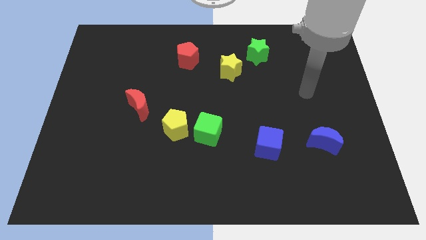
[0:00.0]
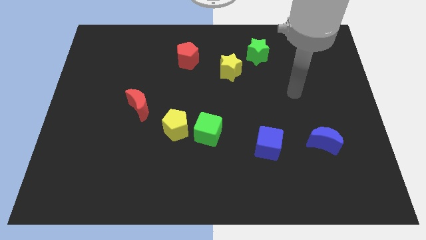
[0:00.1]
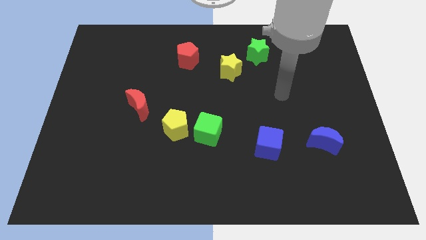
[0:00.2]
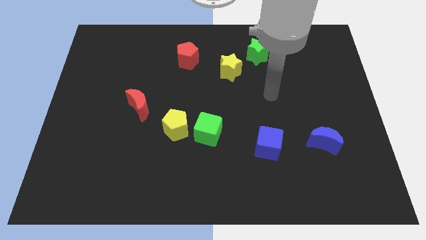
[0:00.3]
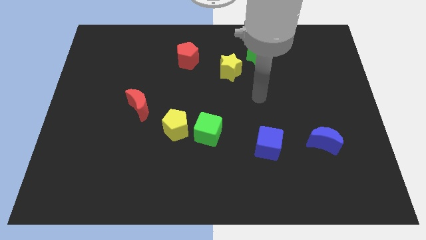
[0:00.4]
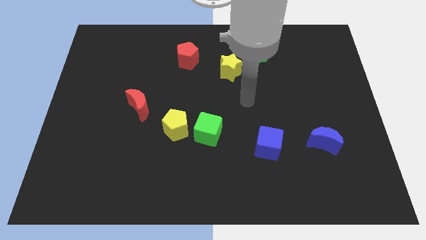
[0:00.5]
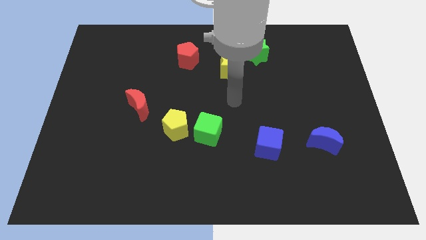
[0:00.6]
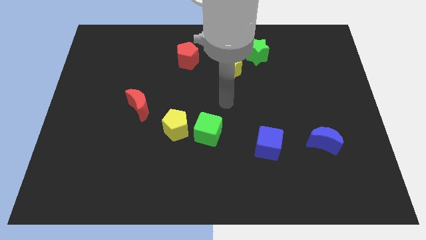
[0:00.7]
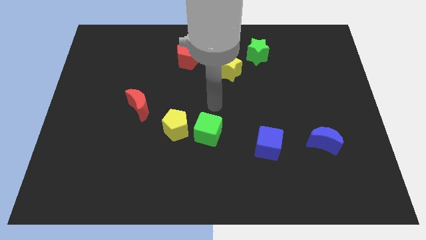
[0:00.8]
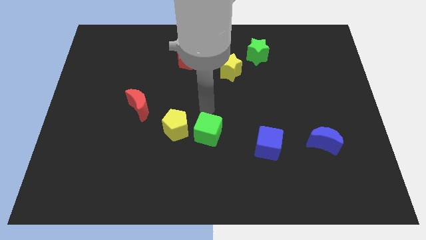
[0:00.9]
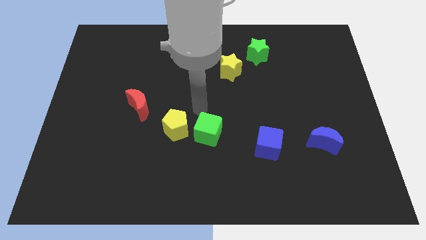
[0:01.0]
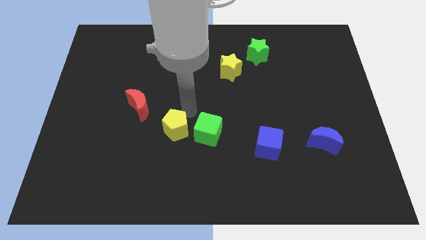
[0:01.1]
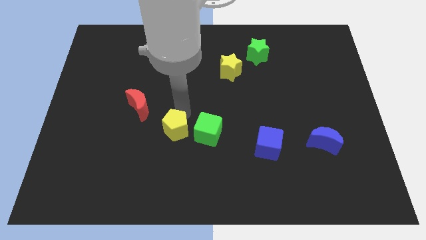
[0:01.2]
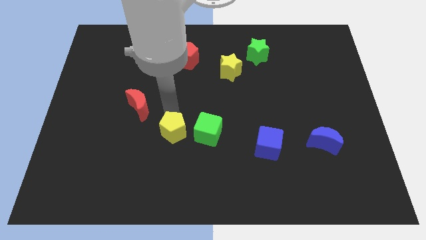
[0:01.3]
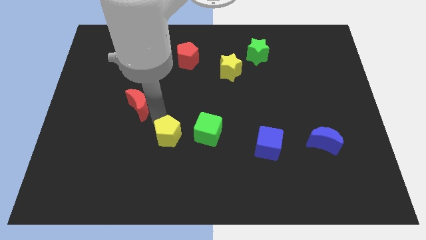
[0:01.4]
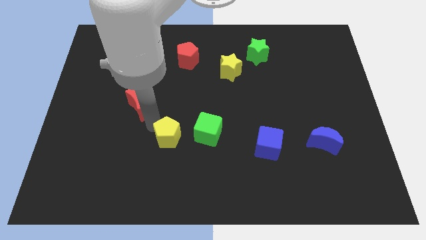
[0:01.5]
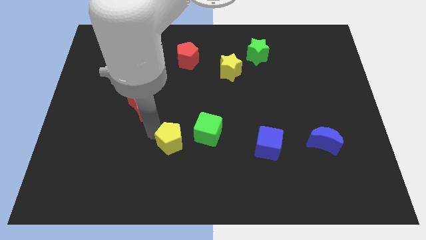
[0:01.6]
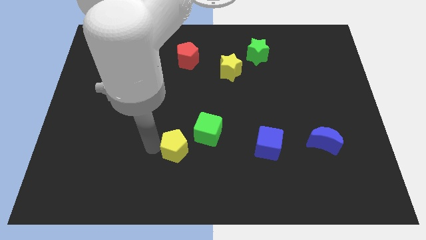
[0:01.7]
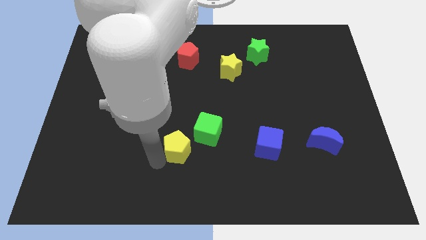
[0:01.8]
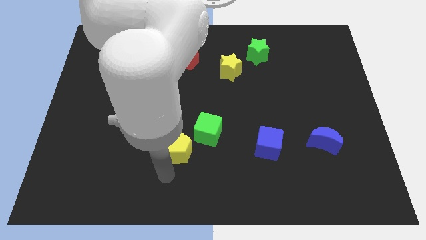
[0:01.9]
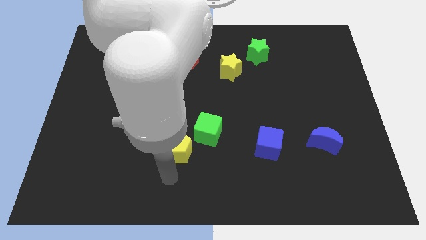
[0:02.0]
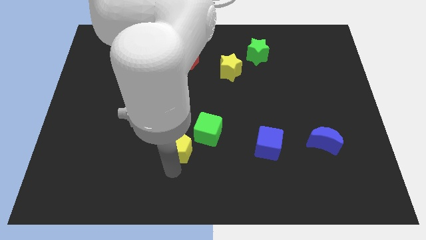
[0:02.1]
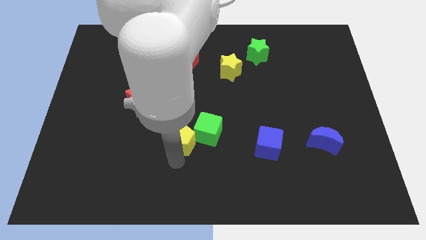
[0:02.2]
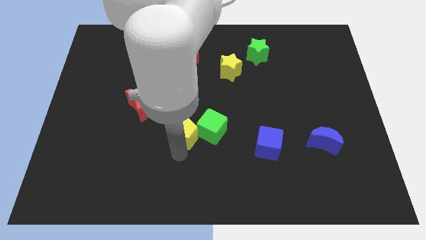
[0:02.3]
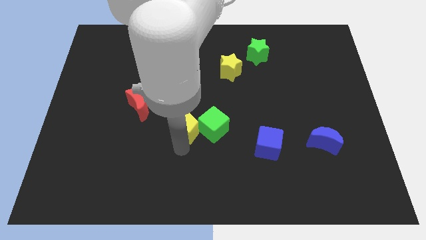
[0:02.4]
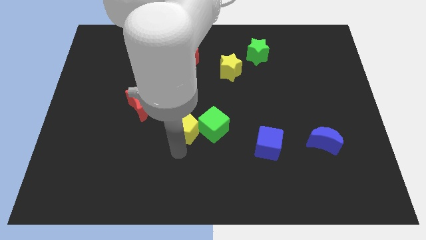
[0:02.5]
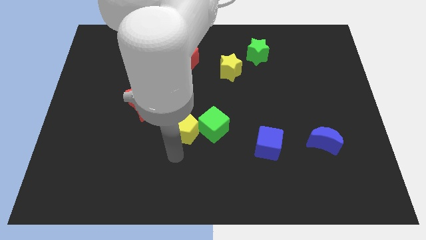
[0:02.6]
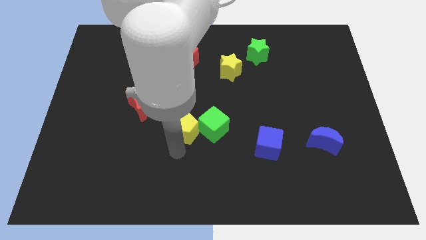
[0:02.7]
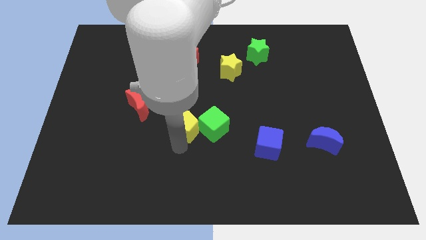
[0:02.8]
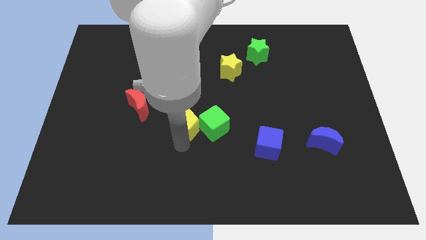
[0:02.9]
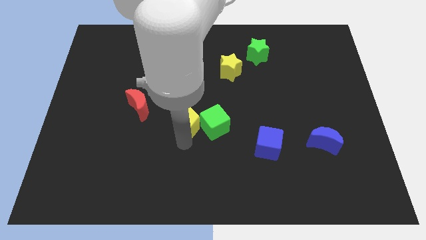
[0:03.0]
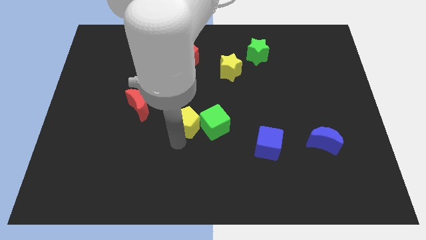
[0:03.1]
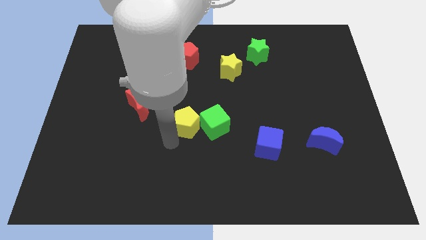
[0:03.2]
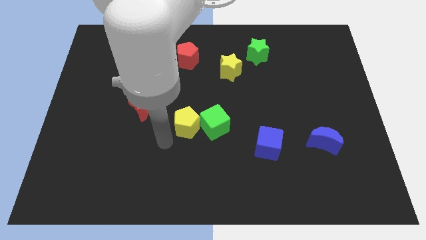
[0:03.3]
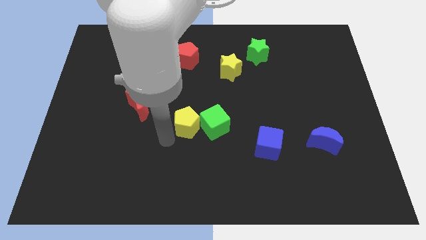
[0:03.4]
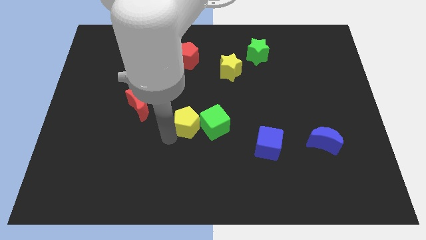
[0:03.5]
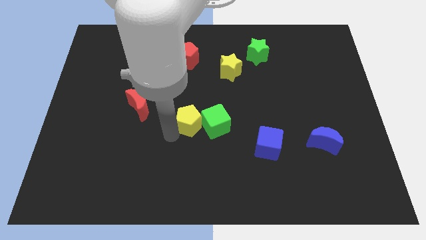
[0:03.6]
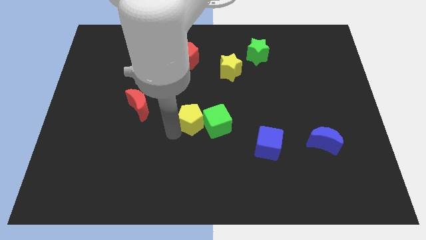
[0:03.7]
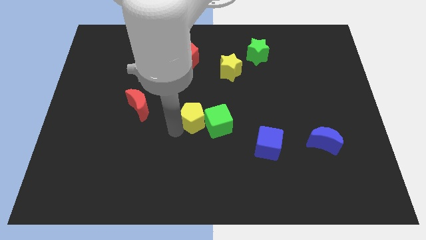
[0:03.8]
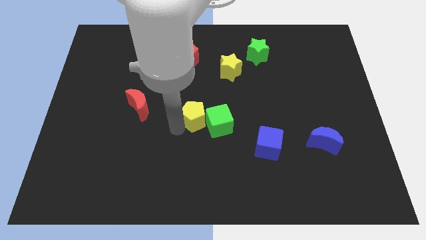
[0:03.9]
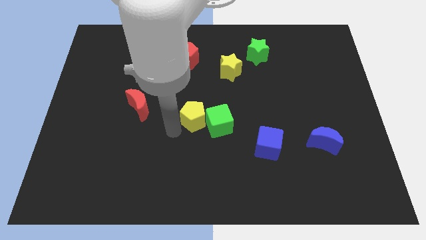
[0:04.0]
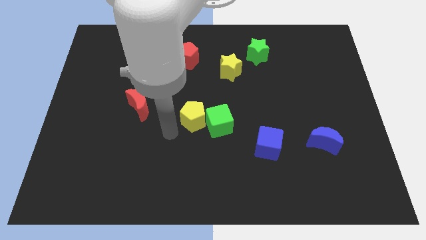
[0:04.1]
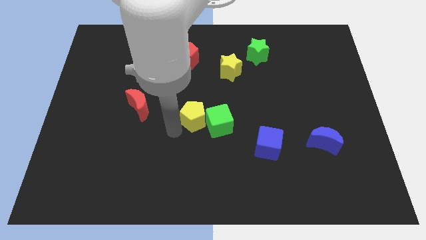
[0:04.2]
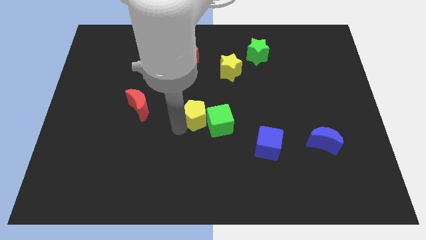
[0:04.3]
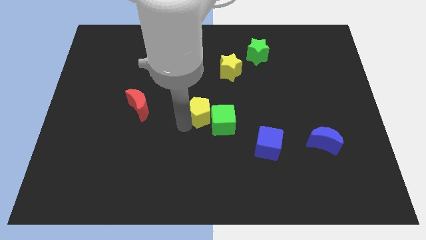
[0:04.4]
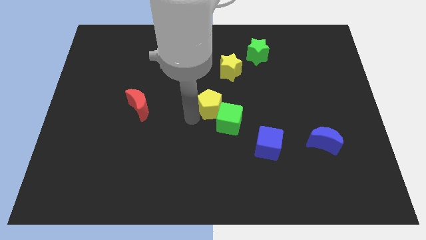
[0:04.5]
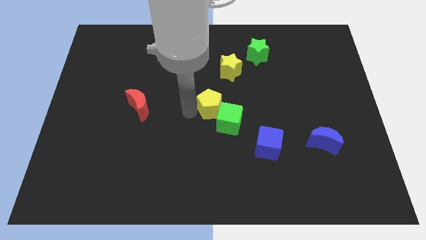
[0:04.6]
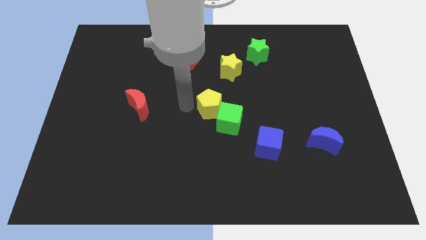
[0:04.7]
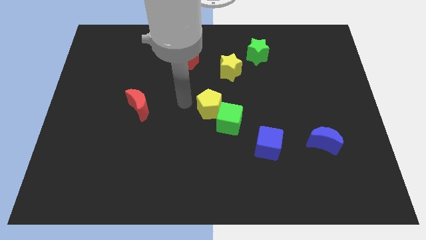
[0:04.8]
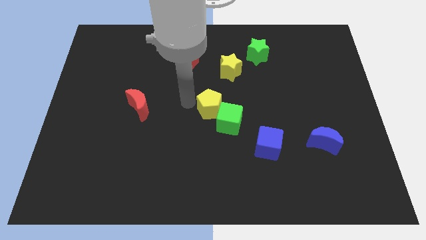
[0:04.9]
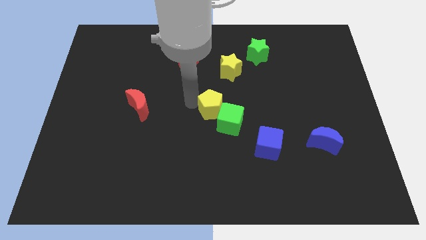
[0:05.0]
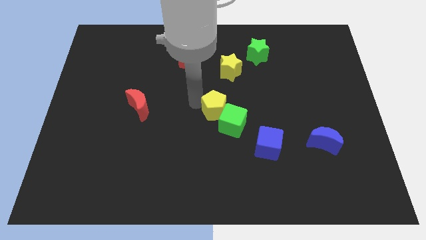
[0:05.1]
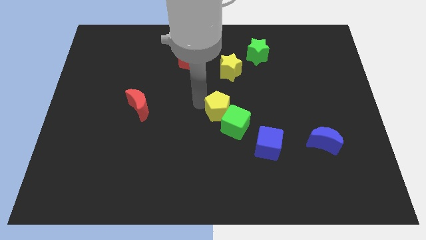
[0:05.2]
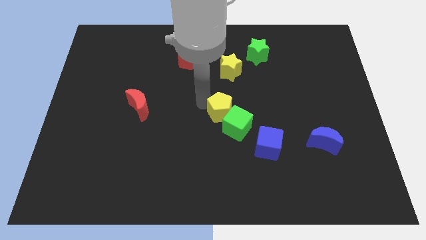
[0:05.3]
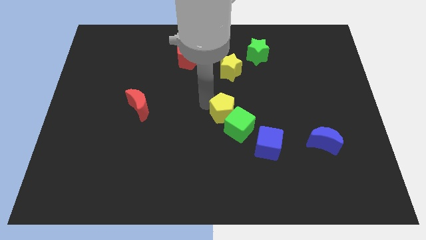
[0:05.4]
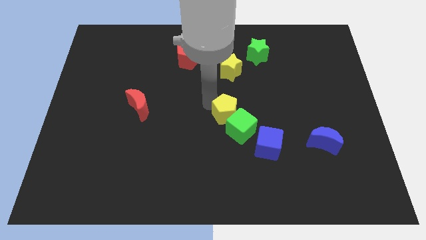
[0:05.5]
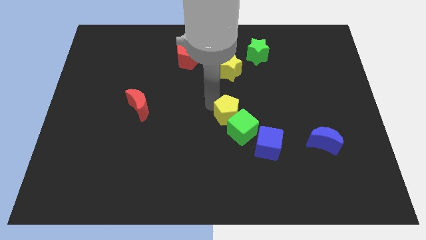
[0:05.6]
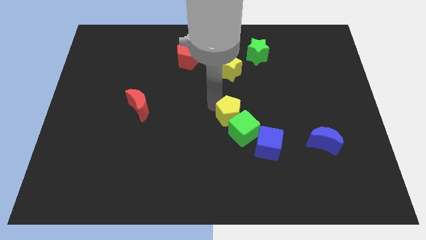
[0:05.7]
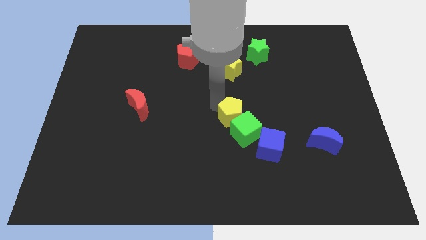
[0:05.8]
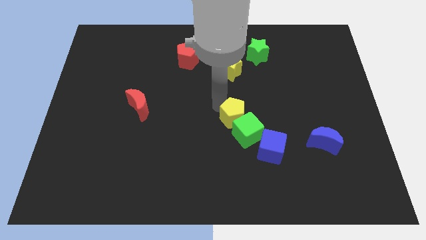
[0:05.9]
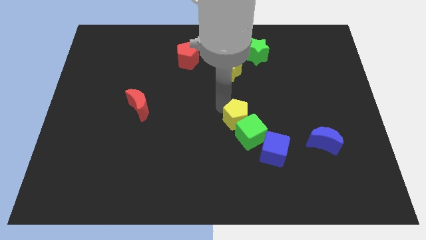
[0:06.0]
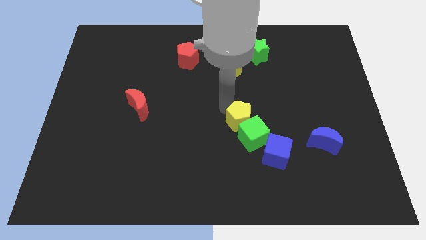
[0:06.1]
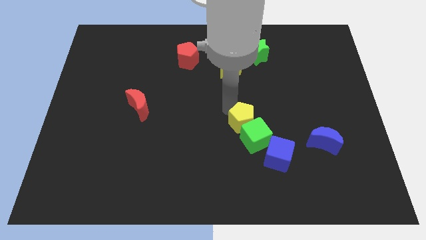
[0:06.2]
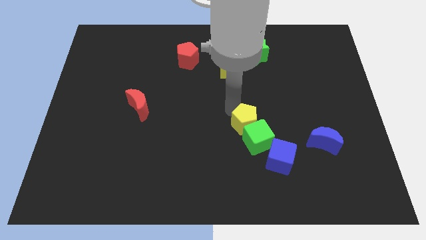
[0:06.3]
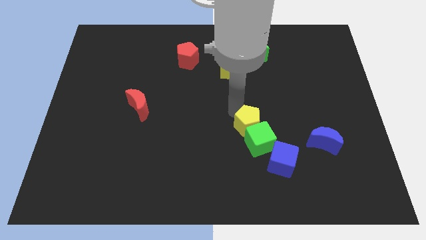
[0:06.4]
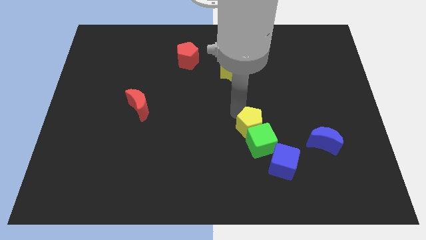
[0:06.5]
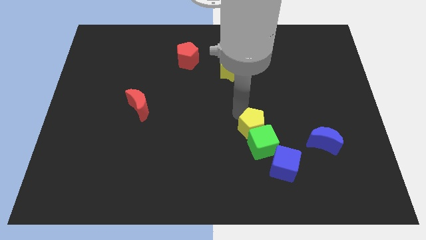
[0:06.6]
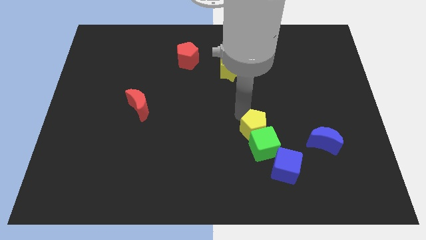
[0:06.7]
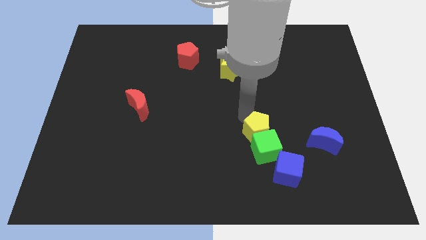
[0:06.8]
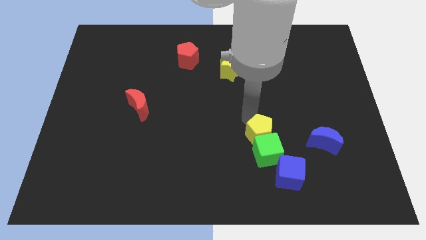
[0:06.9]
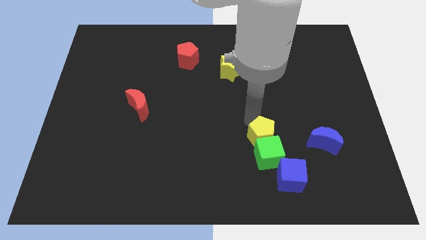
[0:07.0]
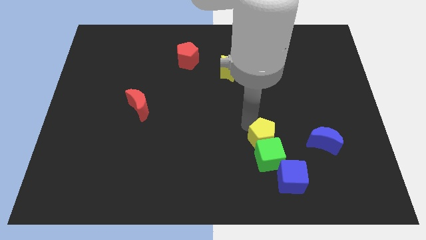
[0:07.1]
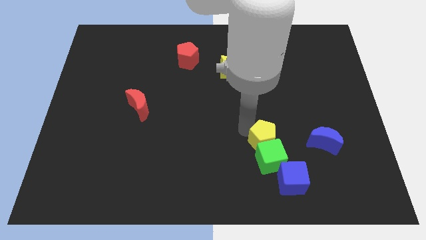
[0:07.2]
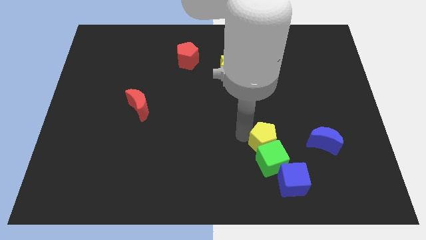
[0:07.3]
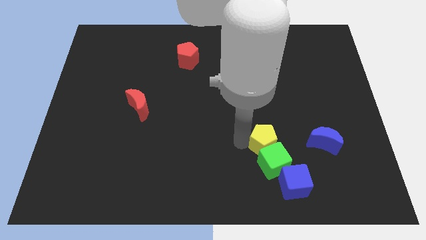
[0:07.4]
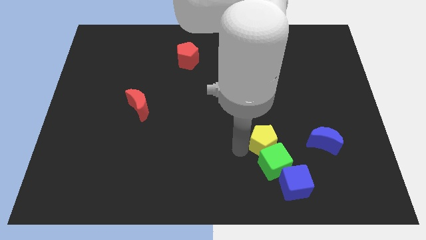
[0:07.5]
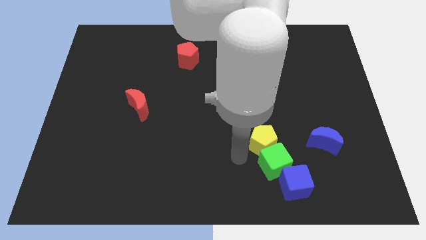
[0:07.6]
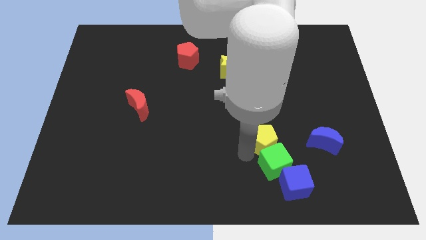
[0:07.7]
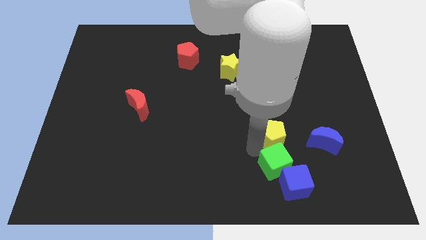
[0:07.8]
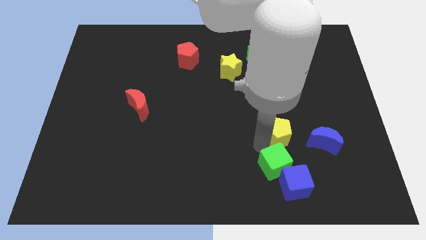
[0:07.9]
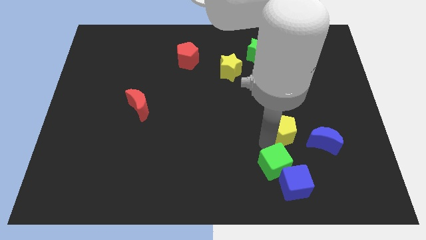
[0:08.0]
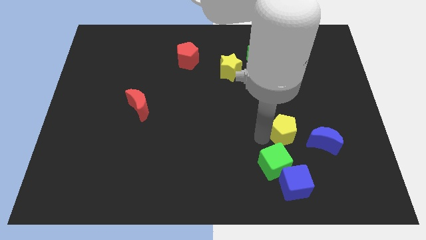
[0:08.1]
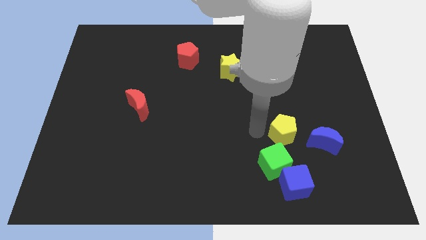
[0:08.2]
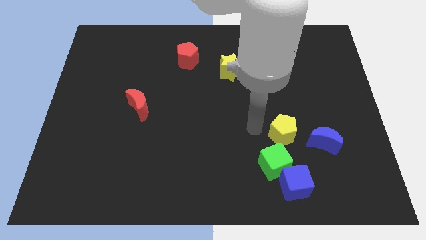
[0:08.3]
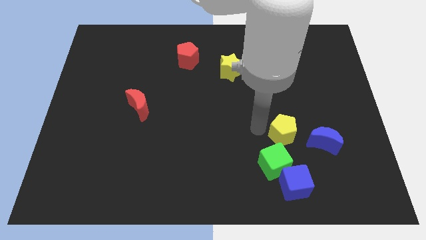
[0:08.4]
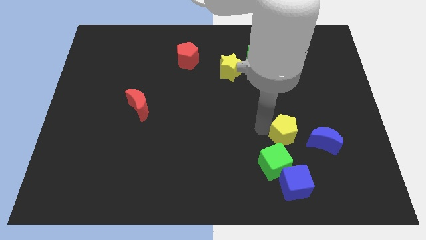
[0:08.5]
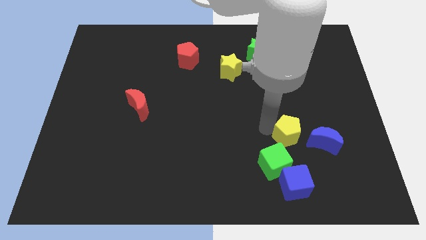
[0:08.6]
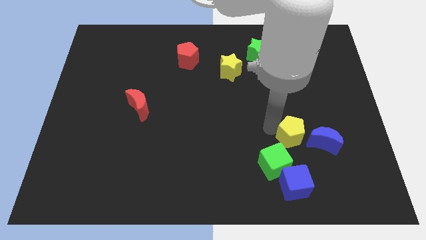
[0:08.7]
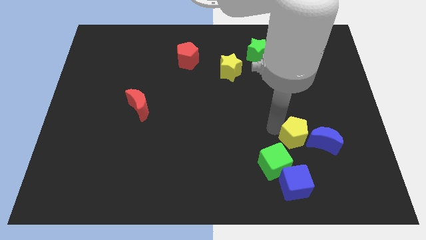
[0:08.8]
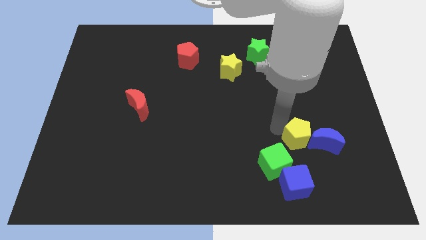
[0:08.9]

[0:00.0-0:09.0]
slide the yellow pentagon close to the blue moon
